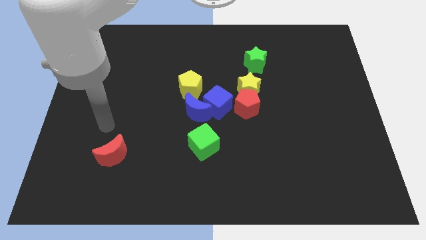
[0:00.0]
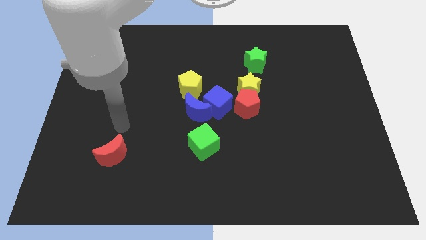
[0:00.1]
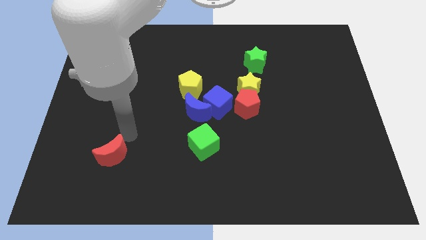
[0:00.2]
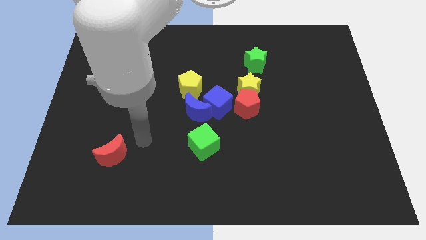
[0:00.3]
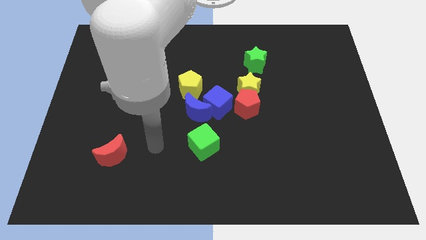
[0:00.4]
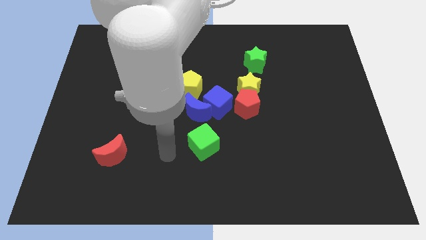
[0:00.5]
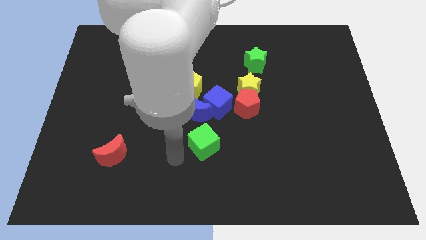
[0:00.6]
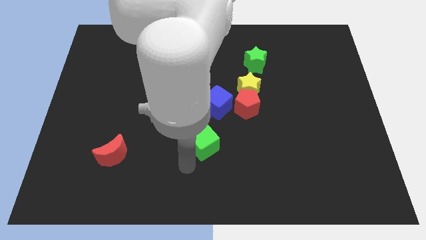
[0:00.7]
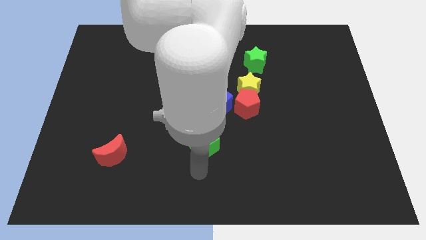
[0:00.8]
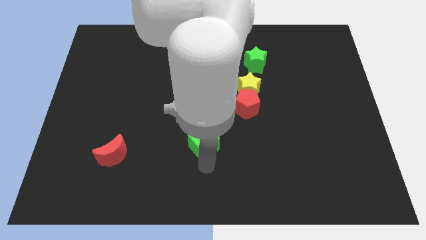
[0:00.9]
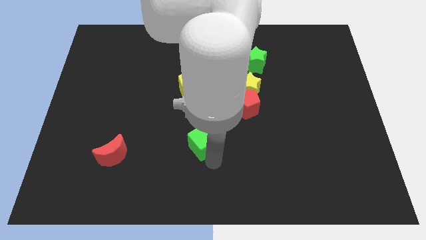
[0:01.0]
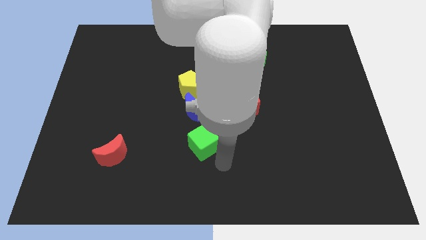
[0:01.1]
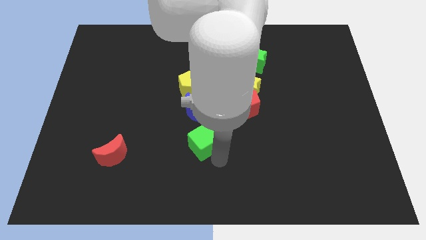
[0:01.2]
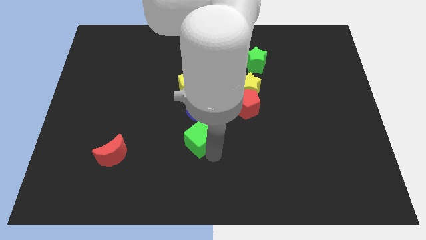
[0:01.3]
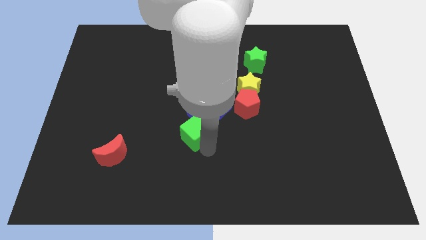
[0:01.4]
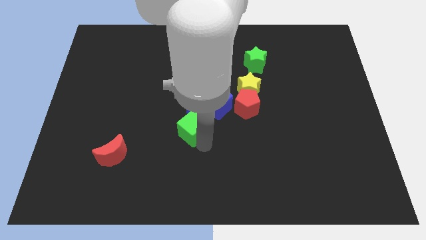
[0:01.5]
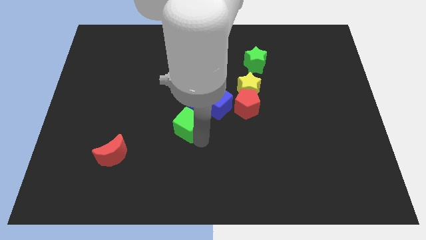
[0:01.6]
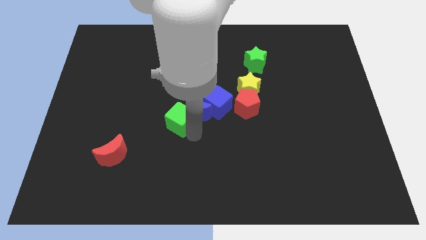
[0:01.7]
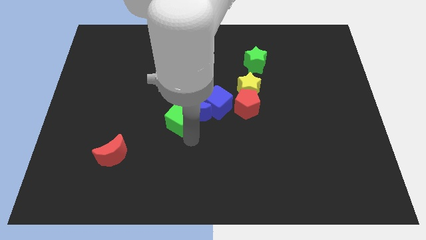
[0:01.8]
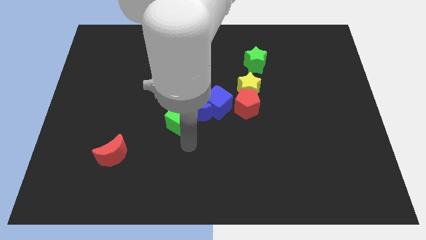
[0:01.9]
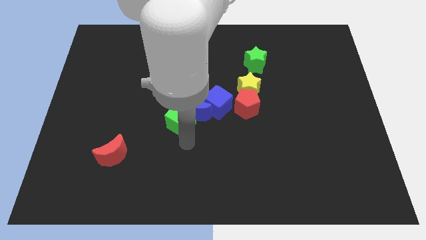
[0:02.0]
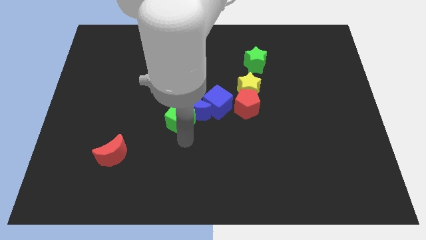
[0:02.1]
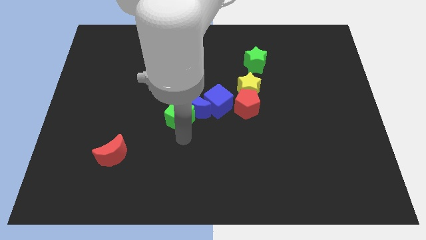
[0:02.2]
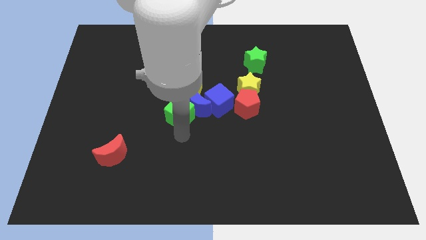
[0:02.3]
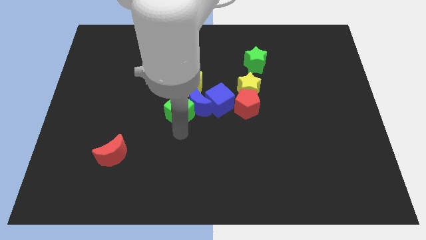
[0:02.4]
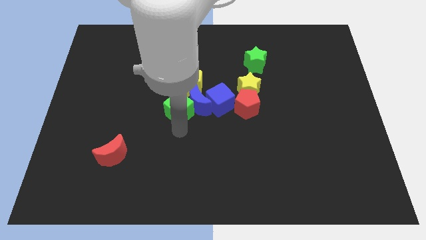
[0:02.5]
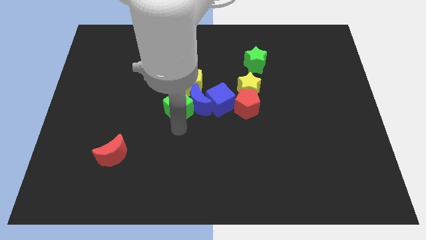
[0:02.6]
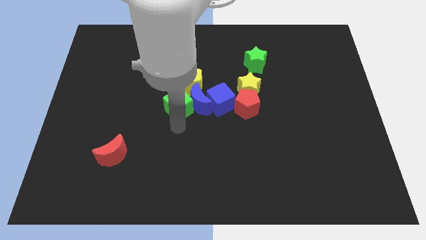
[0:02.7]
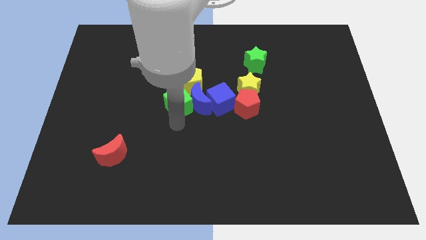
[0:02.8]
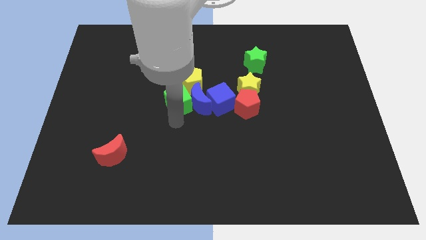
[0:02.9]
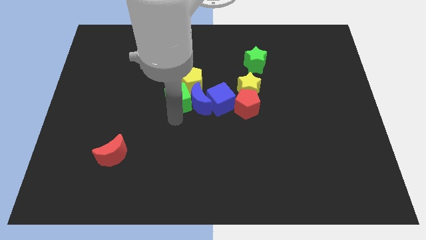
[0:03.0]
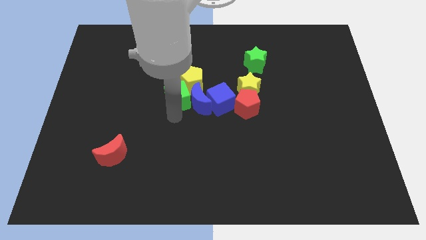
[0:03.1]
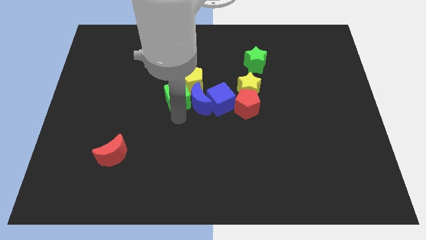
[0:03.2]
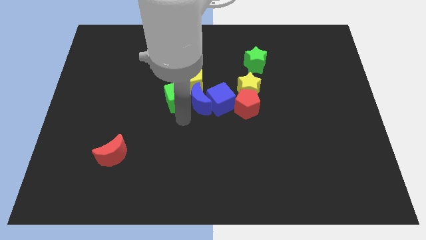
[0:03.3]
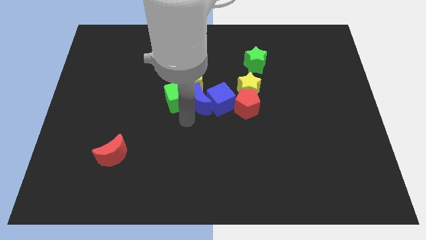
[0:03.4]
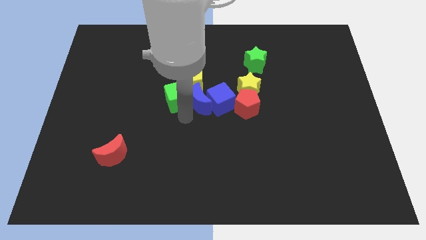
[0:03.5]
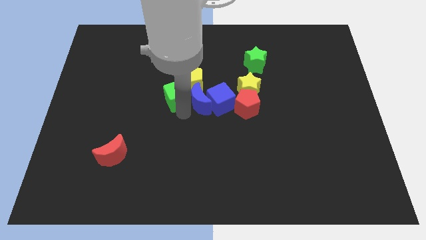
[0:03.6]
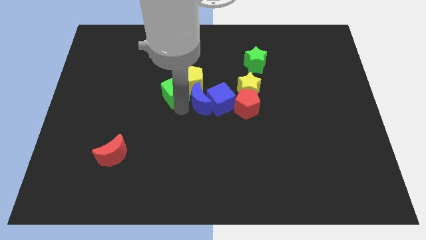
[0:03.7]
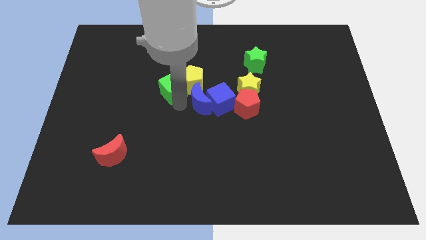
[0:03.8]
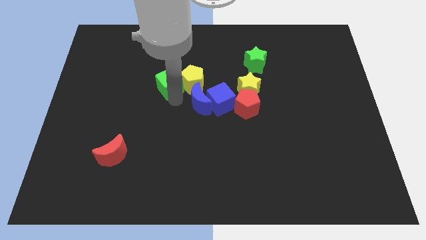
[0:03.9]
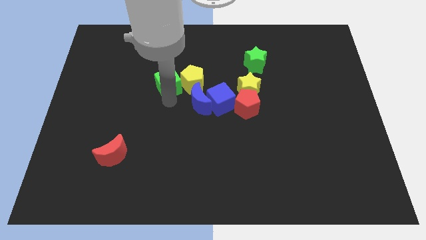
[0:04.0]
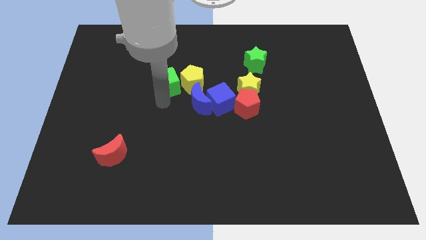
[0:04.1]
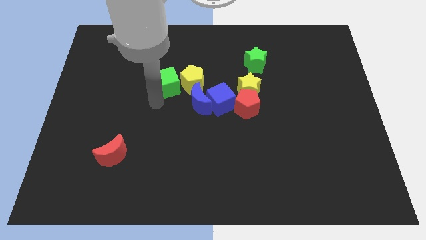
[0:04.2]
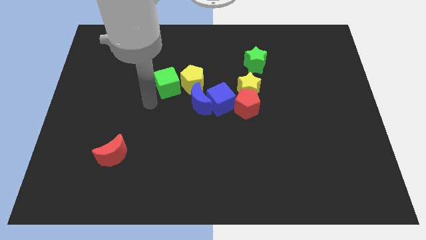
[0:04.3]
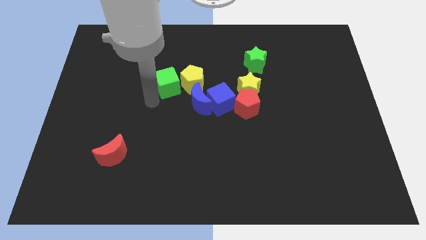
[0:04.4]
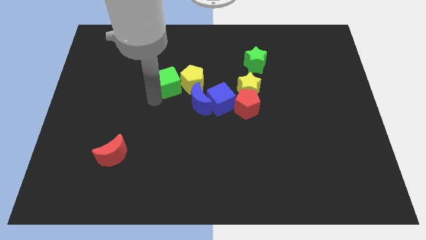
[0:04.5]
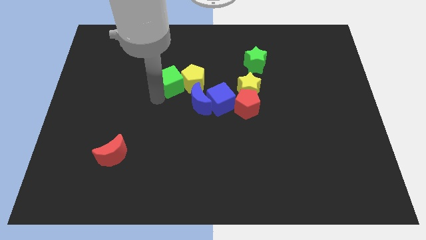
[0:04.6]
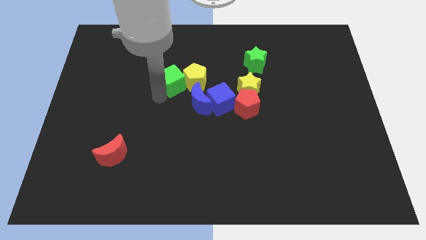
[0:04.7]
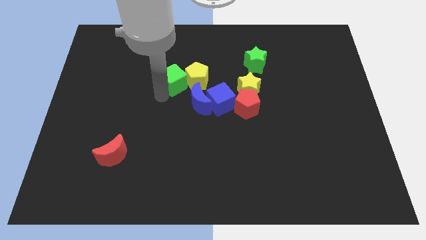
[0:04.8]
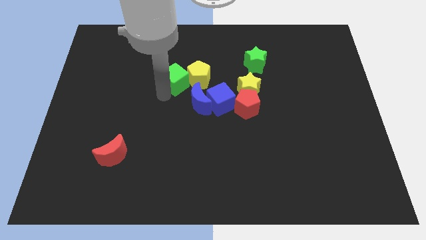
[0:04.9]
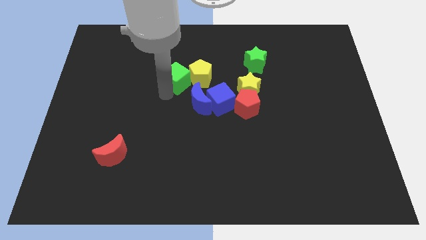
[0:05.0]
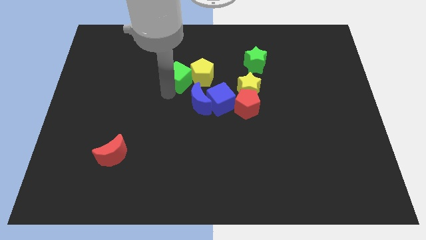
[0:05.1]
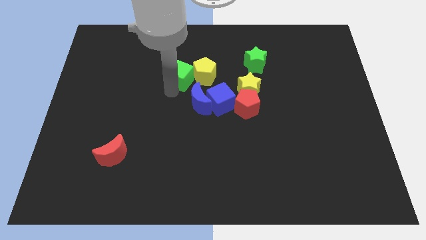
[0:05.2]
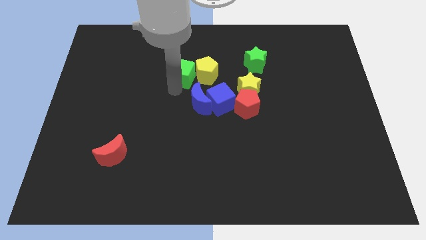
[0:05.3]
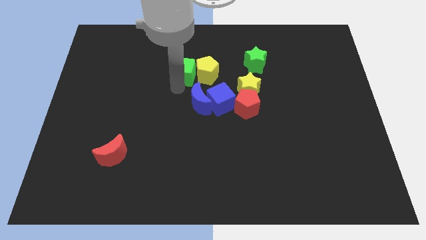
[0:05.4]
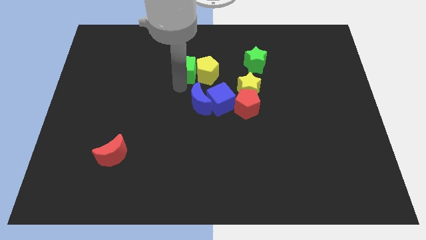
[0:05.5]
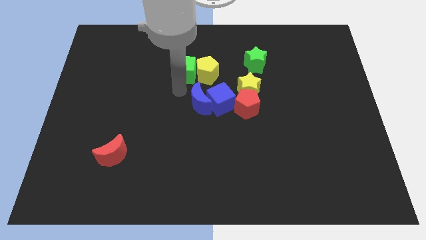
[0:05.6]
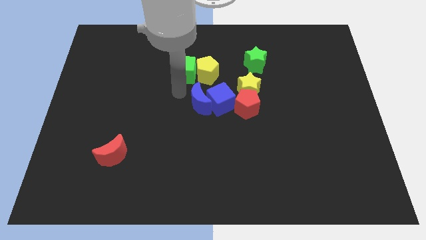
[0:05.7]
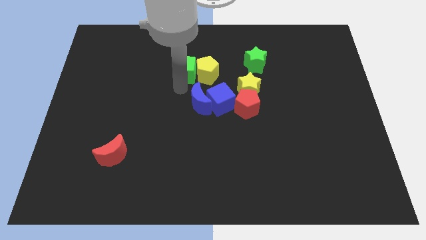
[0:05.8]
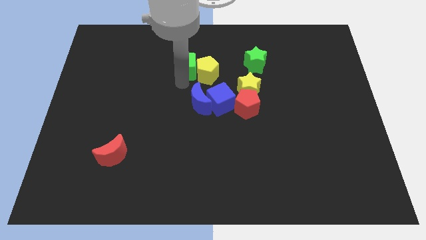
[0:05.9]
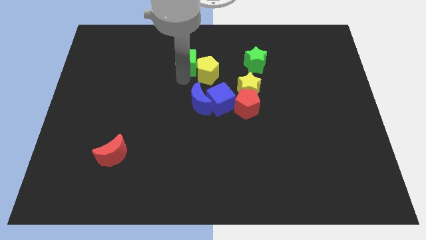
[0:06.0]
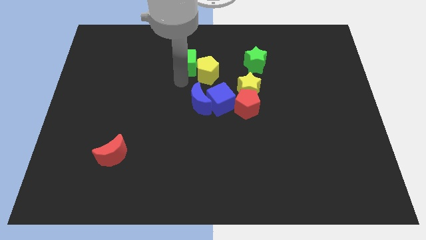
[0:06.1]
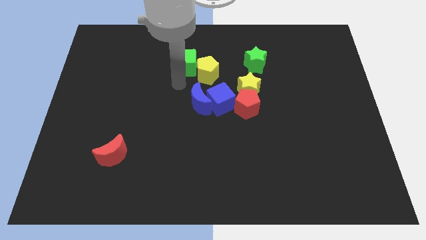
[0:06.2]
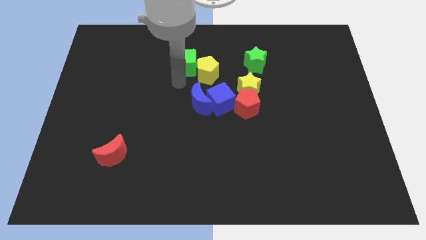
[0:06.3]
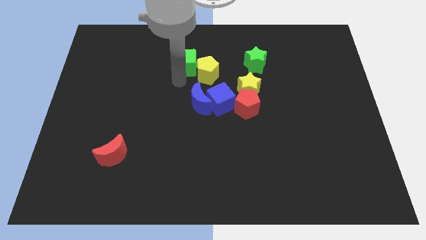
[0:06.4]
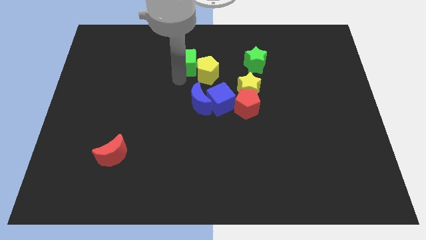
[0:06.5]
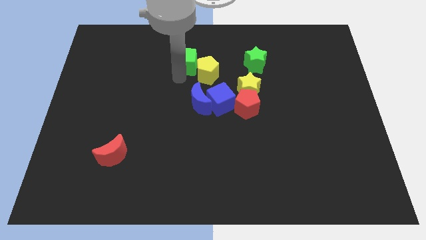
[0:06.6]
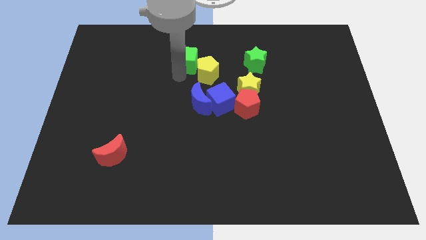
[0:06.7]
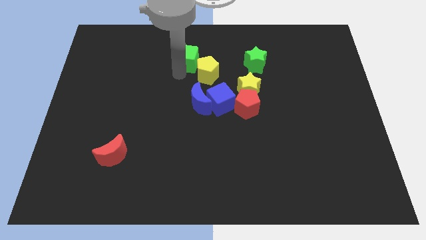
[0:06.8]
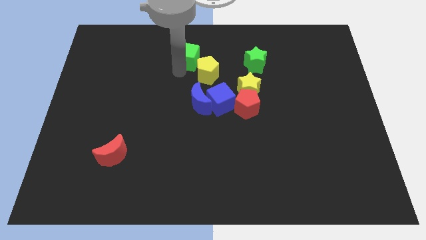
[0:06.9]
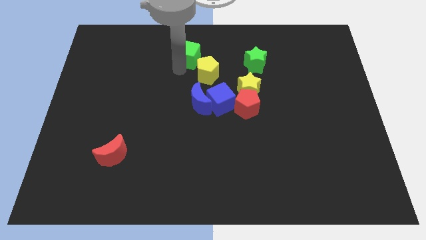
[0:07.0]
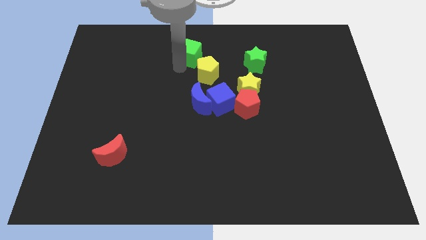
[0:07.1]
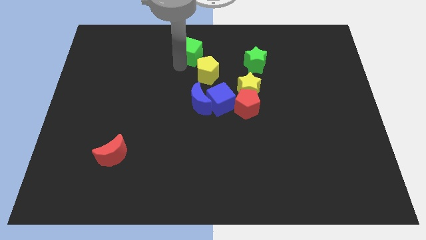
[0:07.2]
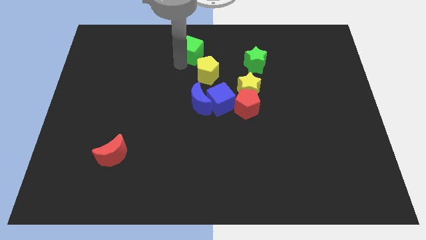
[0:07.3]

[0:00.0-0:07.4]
push the green cube to the top
